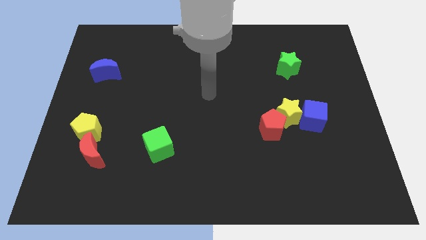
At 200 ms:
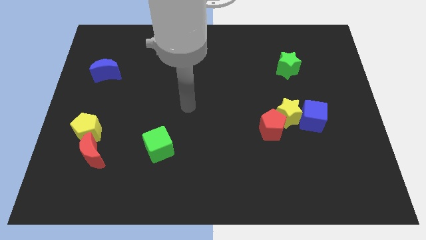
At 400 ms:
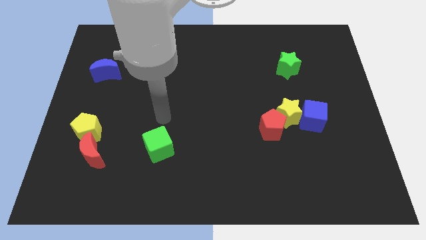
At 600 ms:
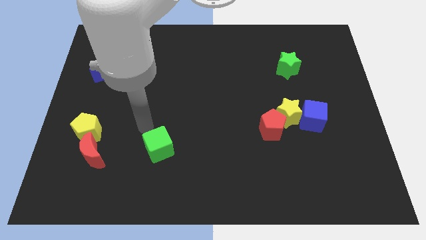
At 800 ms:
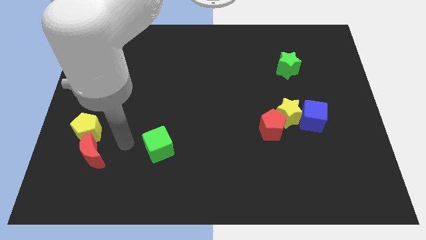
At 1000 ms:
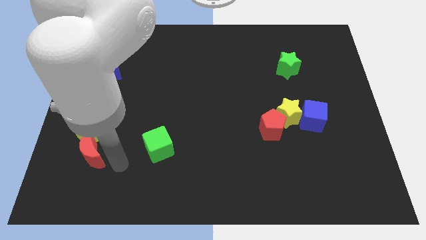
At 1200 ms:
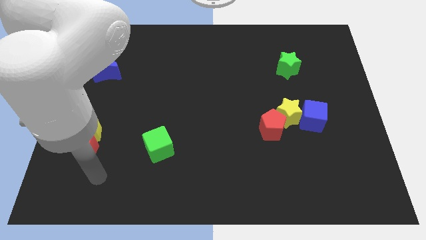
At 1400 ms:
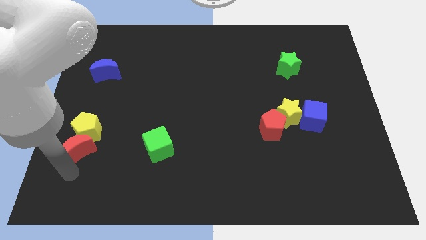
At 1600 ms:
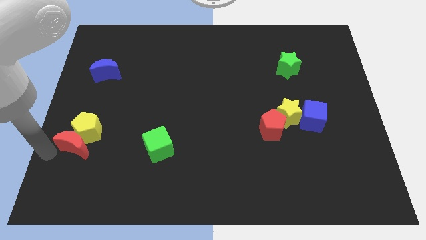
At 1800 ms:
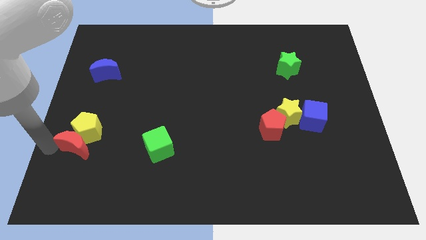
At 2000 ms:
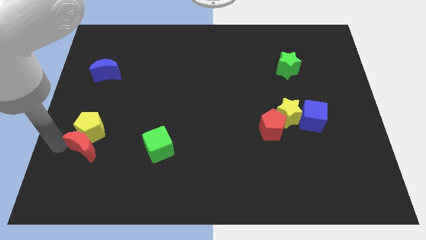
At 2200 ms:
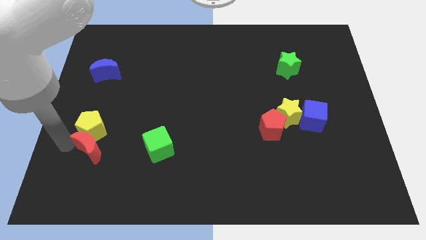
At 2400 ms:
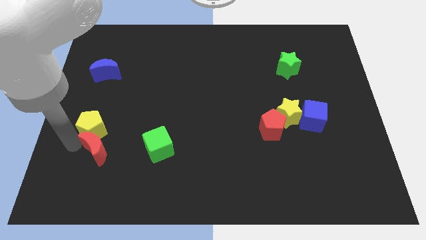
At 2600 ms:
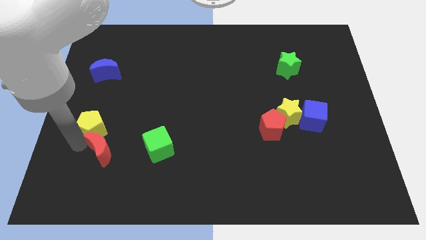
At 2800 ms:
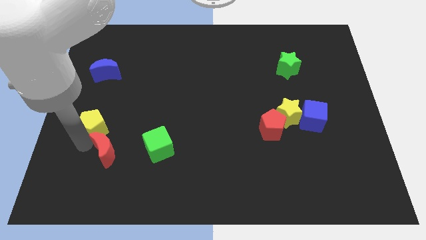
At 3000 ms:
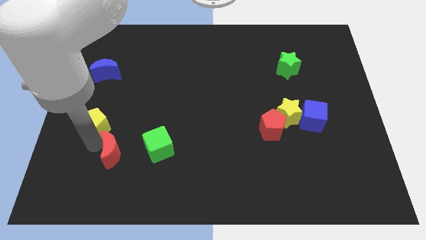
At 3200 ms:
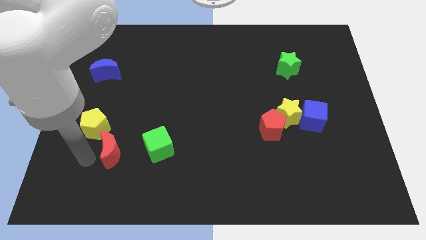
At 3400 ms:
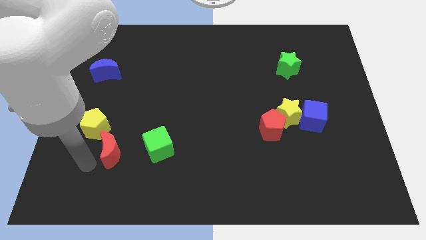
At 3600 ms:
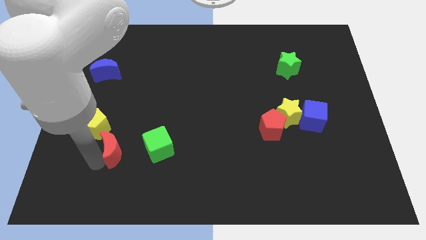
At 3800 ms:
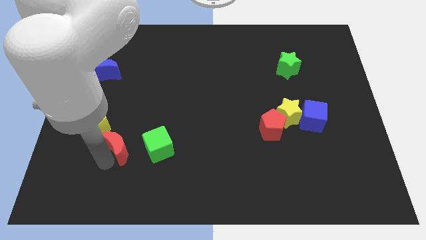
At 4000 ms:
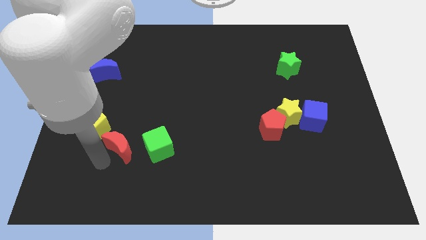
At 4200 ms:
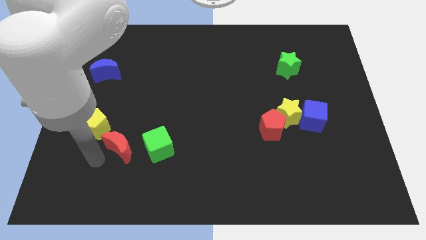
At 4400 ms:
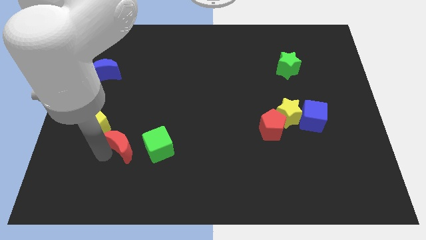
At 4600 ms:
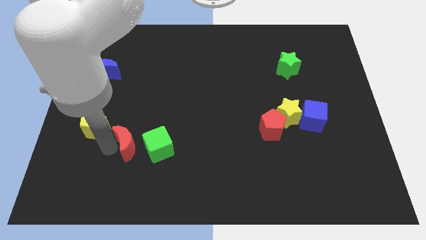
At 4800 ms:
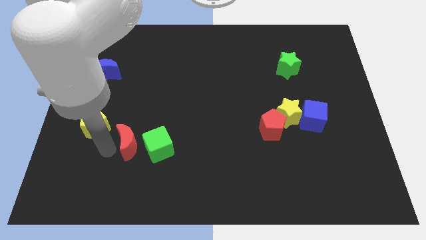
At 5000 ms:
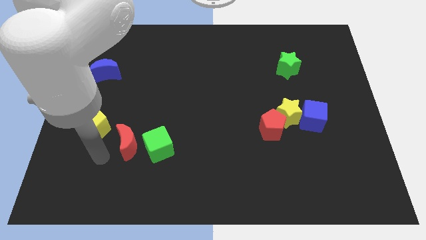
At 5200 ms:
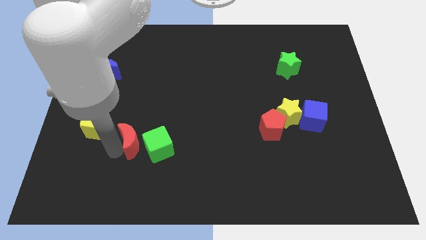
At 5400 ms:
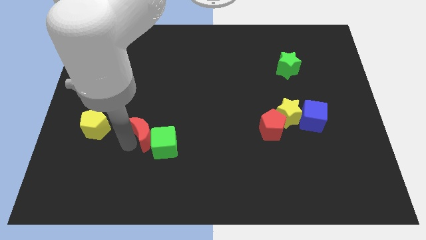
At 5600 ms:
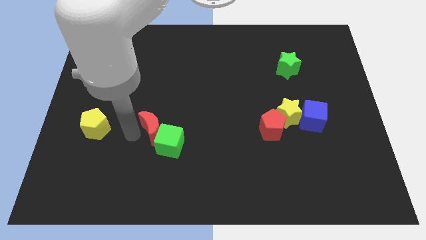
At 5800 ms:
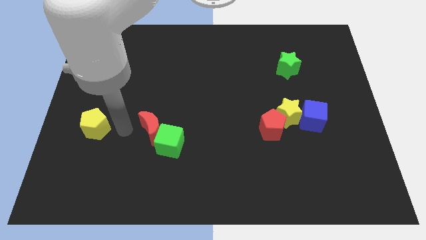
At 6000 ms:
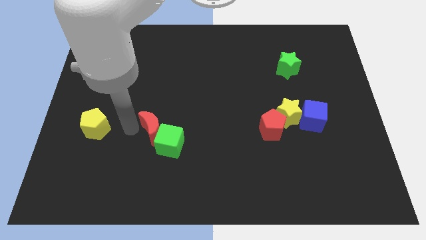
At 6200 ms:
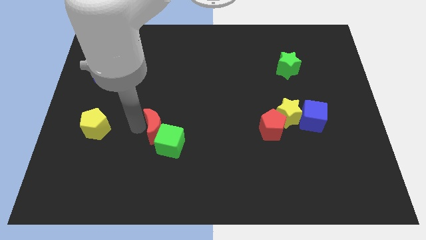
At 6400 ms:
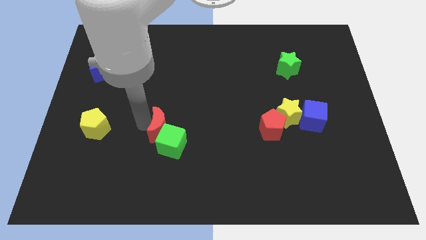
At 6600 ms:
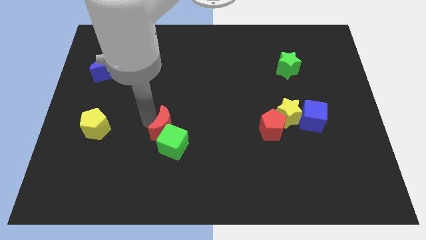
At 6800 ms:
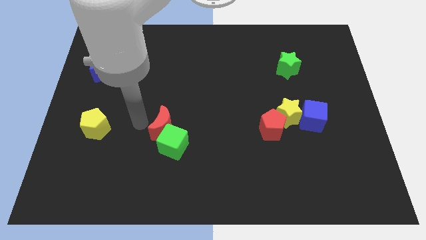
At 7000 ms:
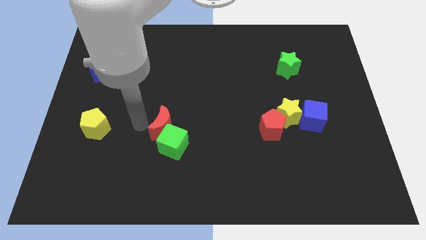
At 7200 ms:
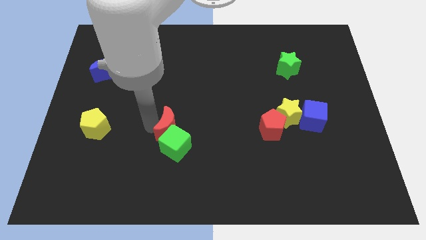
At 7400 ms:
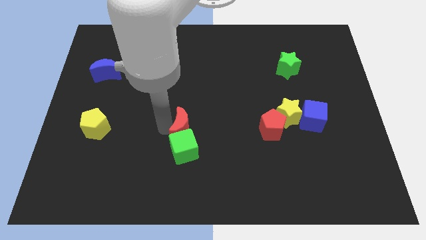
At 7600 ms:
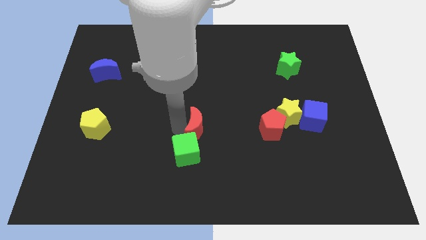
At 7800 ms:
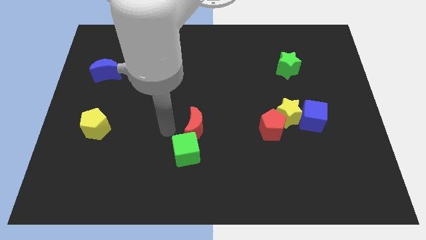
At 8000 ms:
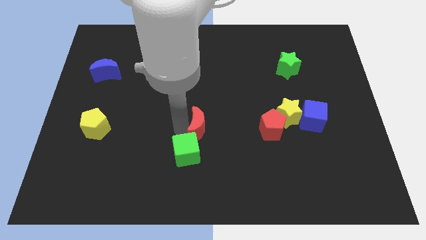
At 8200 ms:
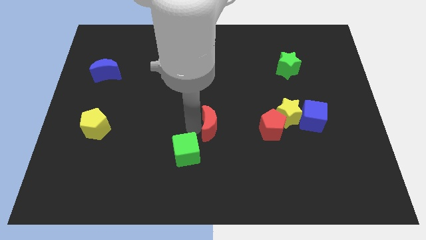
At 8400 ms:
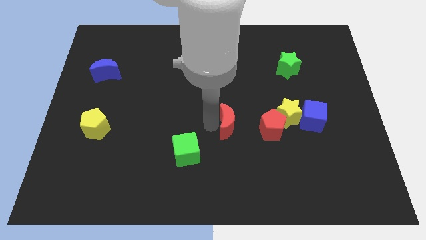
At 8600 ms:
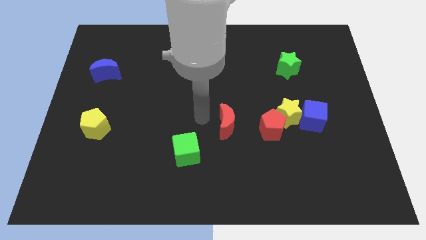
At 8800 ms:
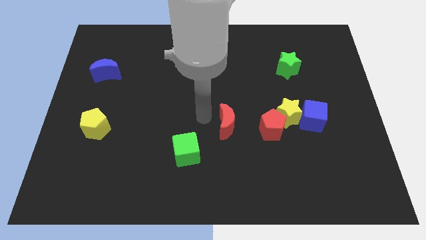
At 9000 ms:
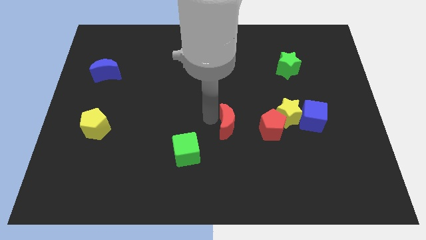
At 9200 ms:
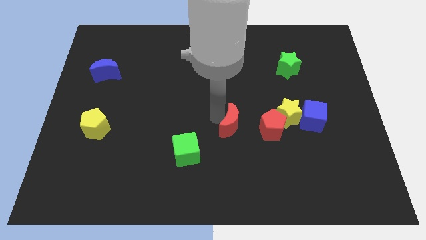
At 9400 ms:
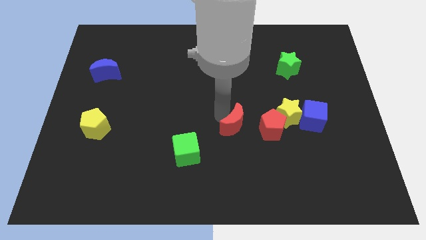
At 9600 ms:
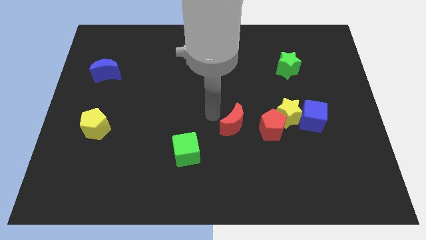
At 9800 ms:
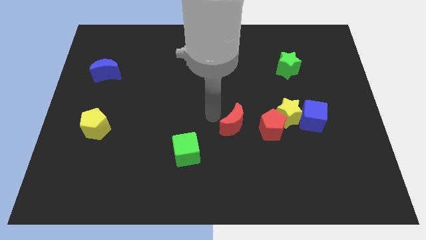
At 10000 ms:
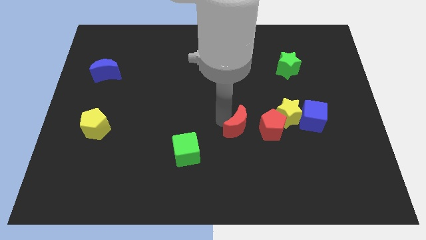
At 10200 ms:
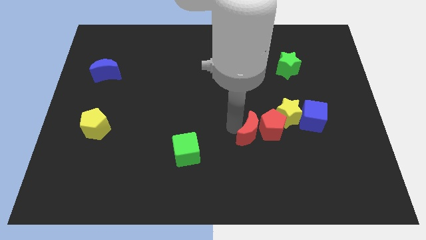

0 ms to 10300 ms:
push the red moon next to the red pentagon

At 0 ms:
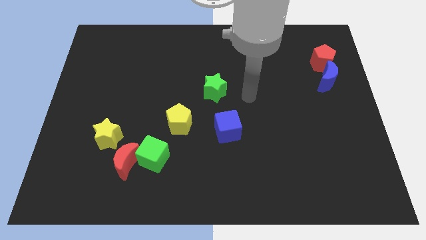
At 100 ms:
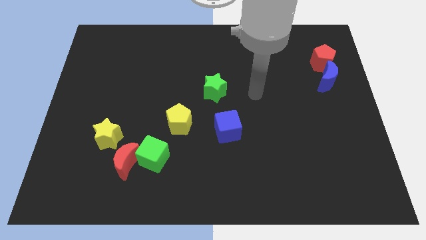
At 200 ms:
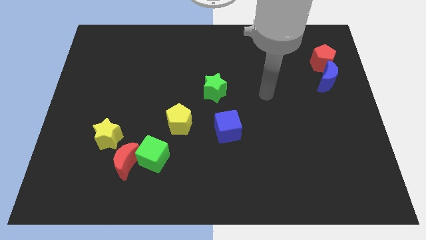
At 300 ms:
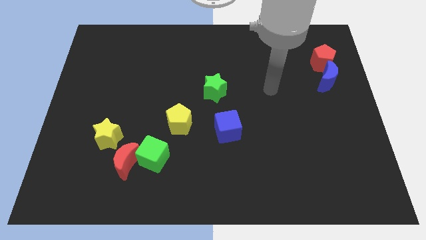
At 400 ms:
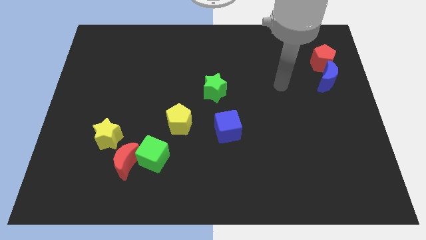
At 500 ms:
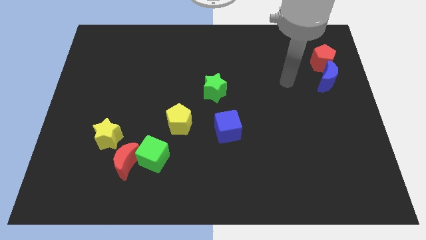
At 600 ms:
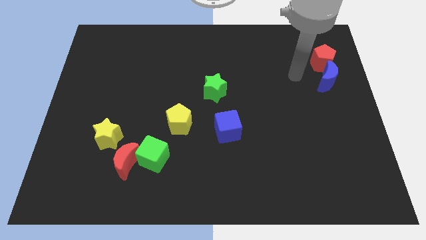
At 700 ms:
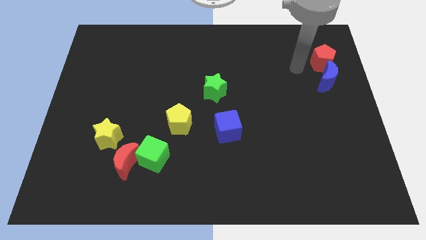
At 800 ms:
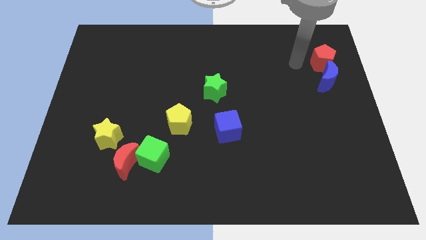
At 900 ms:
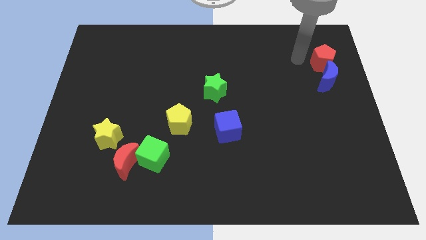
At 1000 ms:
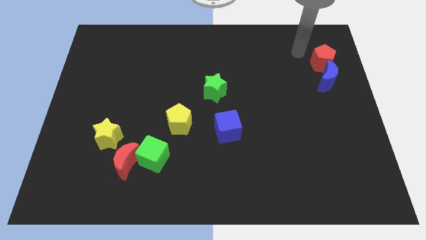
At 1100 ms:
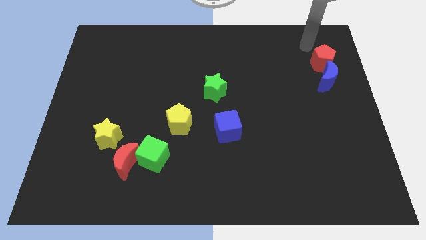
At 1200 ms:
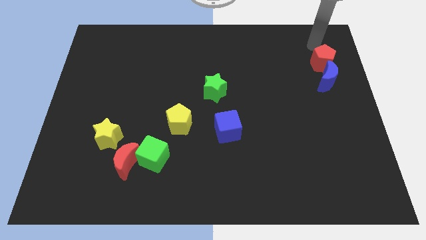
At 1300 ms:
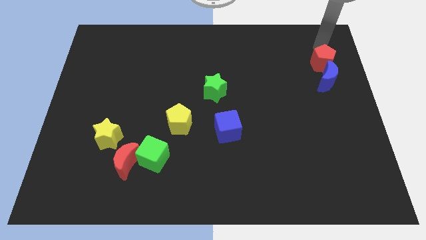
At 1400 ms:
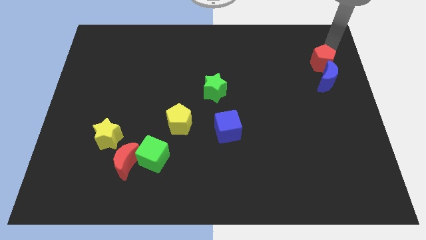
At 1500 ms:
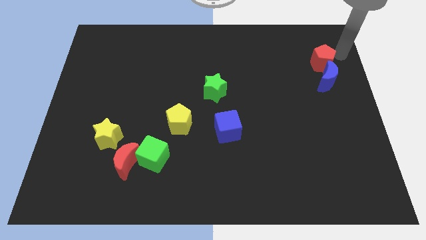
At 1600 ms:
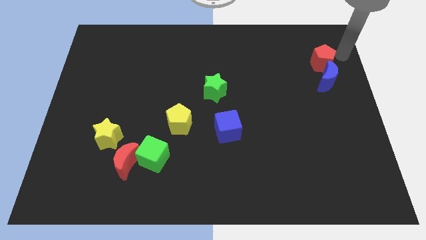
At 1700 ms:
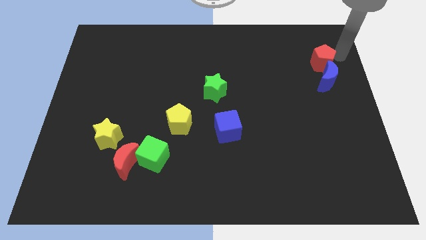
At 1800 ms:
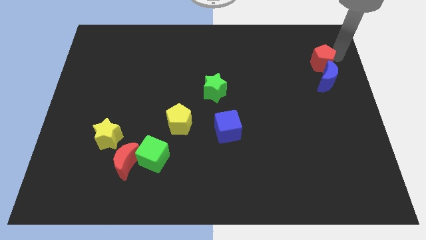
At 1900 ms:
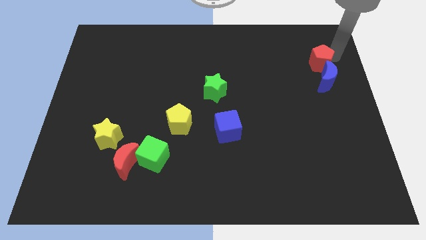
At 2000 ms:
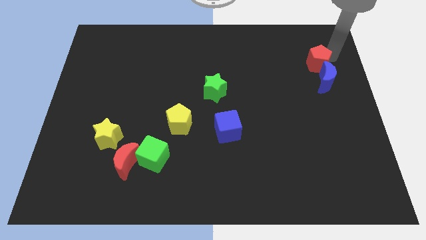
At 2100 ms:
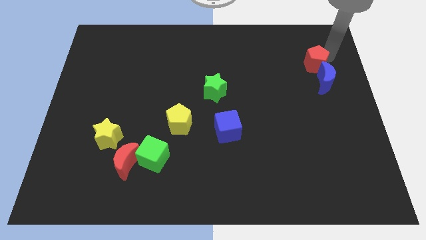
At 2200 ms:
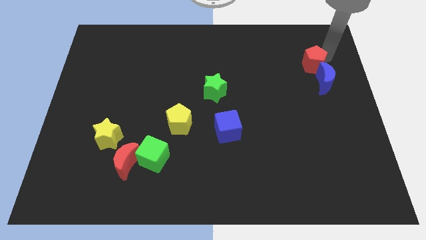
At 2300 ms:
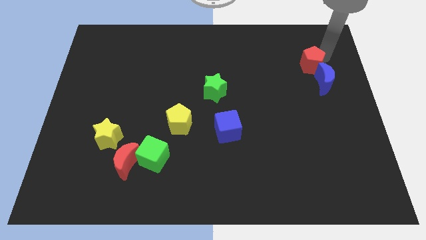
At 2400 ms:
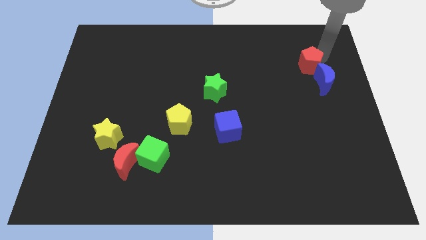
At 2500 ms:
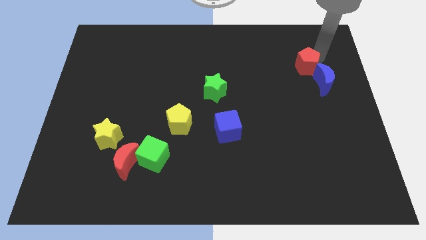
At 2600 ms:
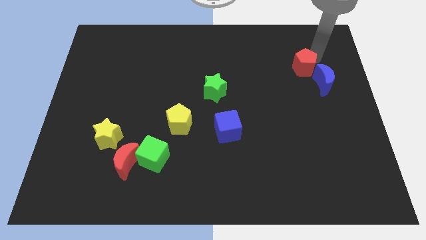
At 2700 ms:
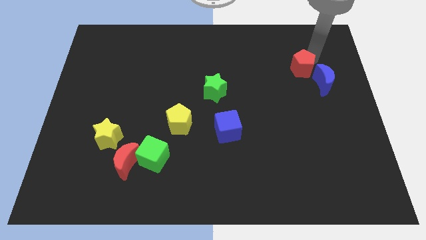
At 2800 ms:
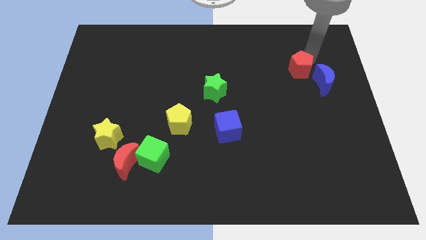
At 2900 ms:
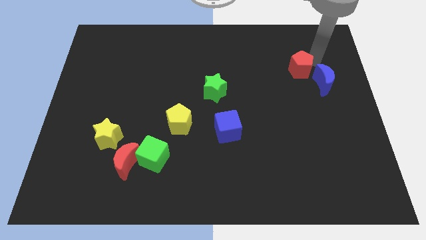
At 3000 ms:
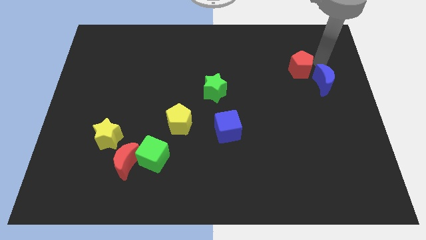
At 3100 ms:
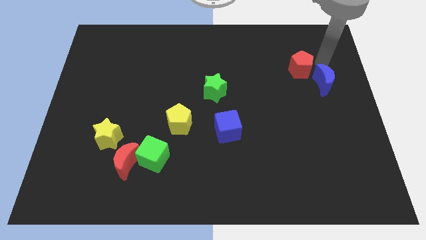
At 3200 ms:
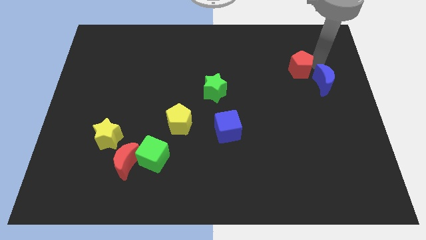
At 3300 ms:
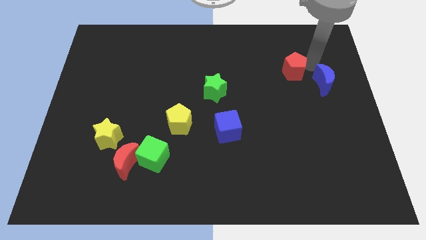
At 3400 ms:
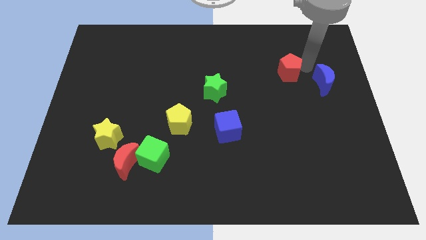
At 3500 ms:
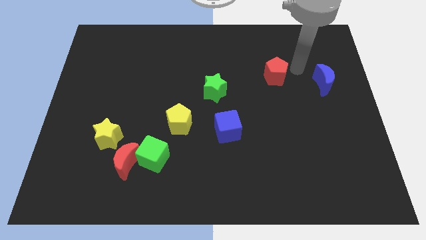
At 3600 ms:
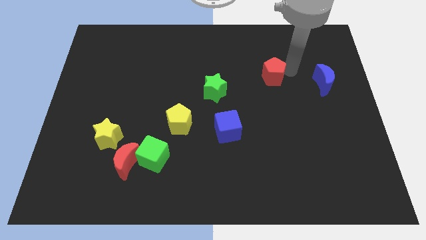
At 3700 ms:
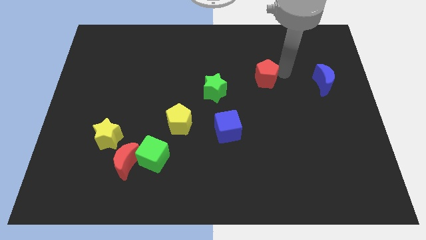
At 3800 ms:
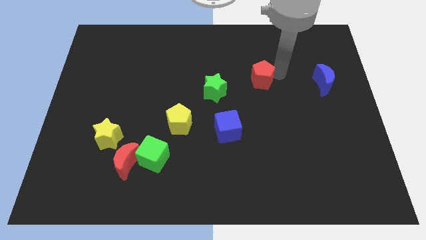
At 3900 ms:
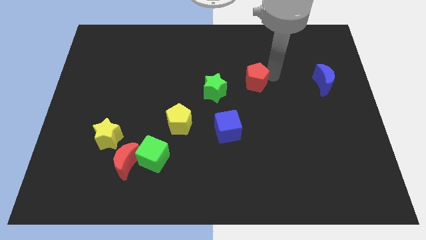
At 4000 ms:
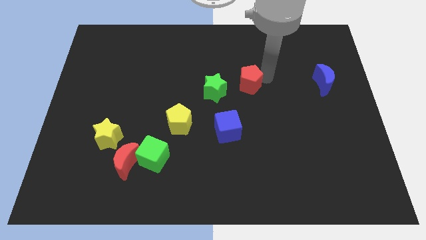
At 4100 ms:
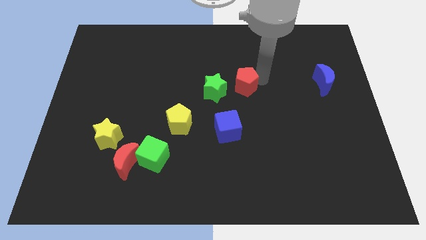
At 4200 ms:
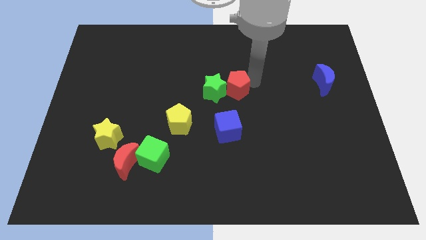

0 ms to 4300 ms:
slide the red pentagon to the green star
